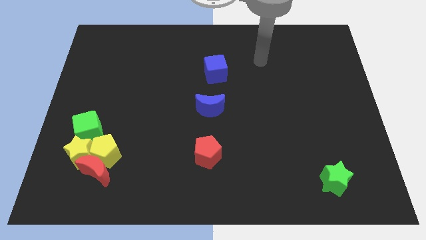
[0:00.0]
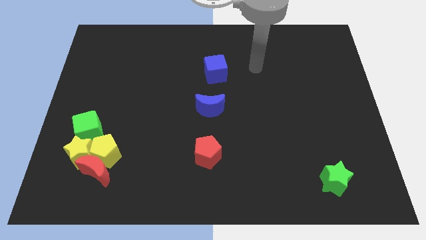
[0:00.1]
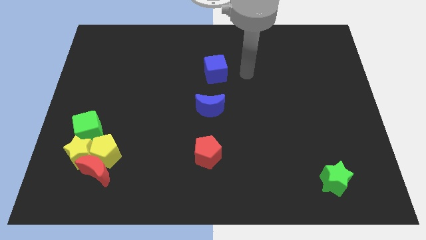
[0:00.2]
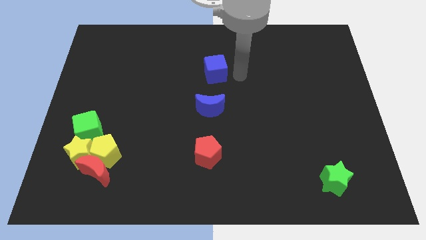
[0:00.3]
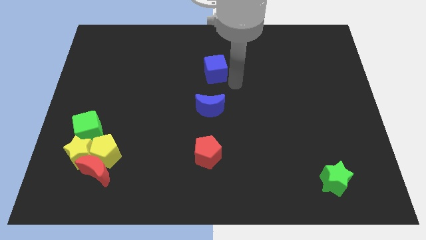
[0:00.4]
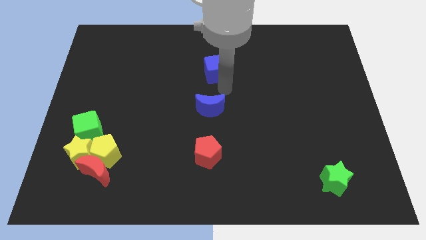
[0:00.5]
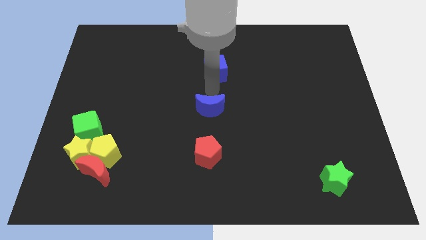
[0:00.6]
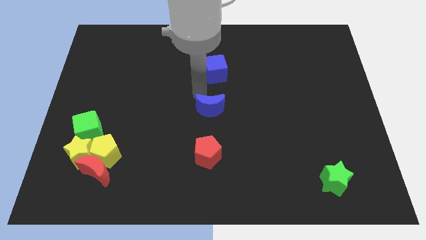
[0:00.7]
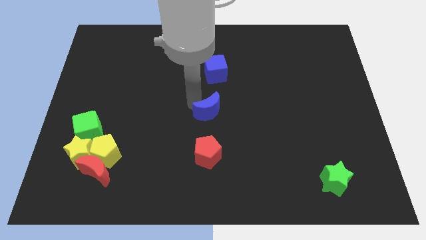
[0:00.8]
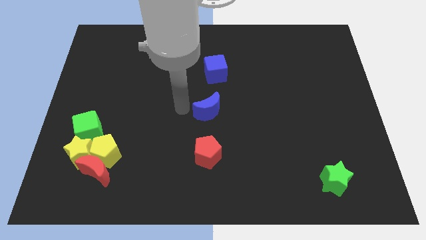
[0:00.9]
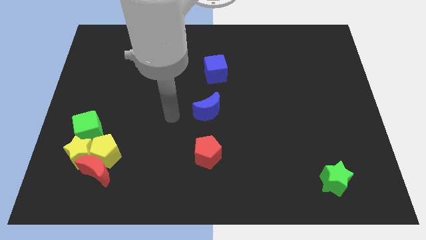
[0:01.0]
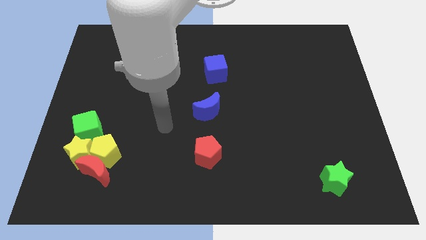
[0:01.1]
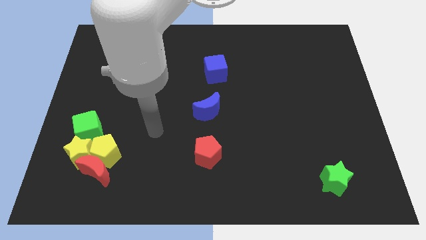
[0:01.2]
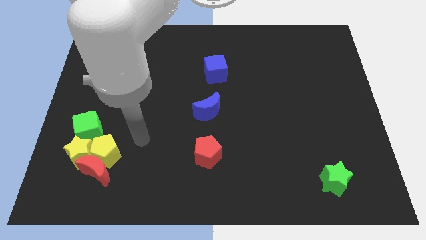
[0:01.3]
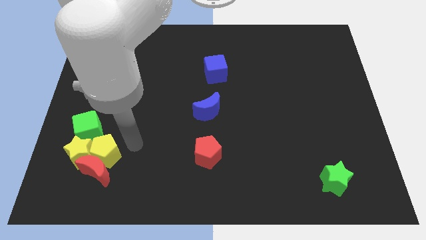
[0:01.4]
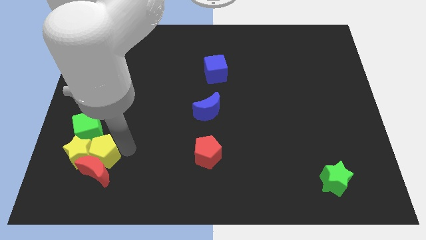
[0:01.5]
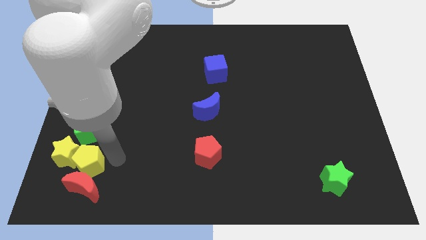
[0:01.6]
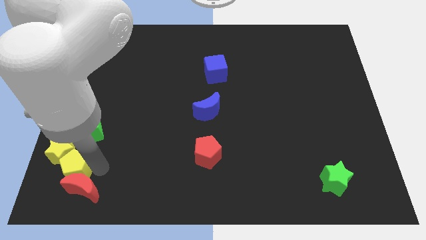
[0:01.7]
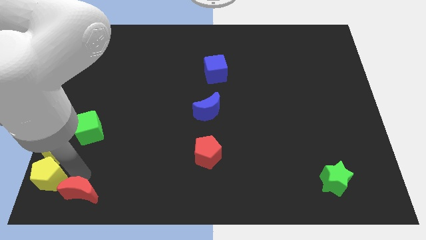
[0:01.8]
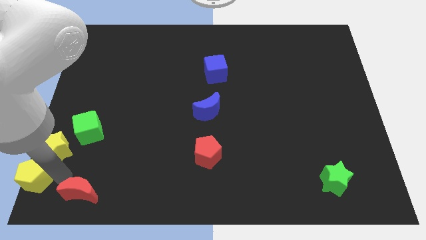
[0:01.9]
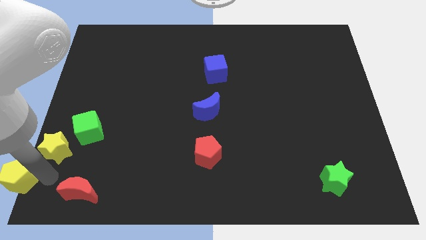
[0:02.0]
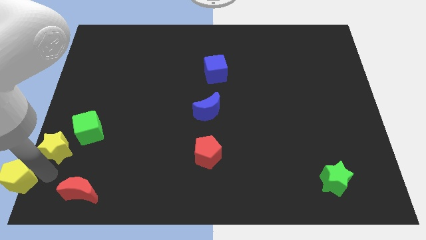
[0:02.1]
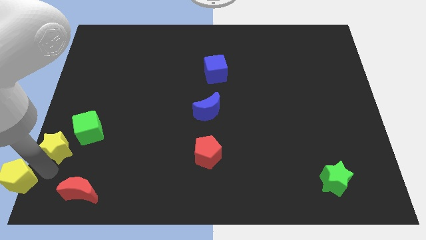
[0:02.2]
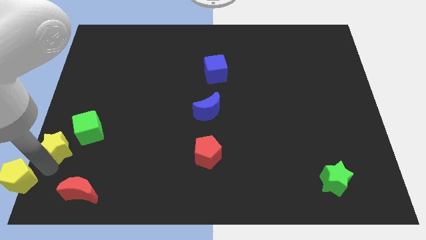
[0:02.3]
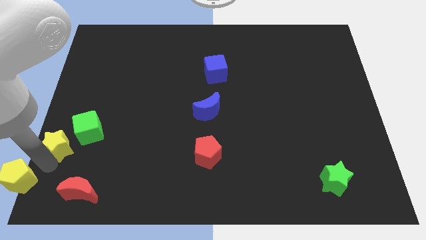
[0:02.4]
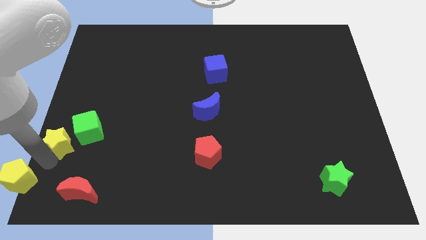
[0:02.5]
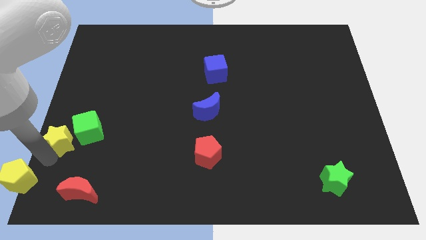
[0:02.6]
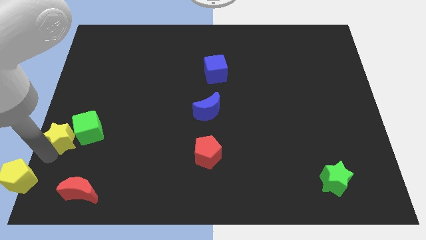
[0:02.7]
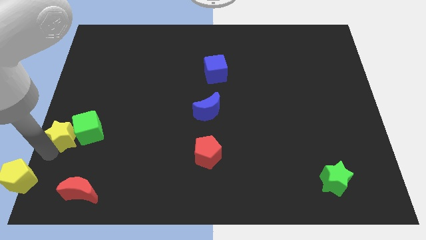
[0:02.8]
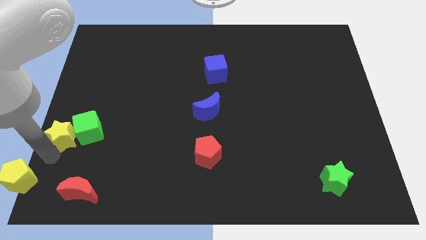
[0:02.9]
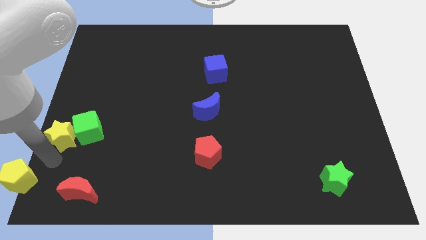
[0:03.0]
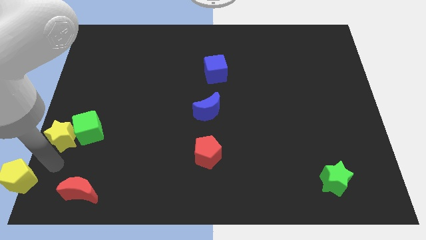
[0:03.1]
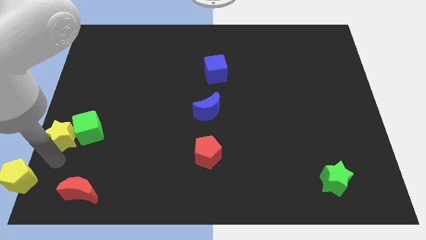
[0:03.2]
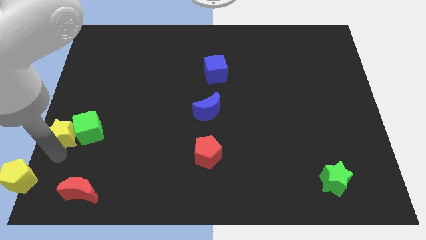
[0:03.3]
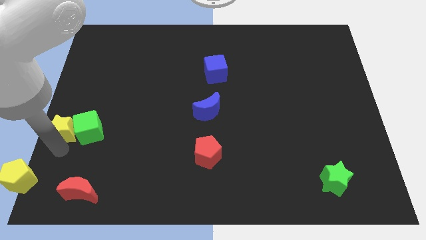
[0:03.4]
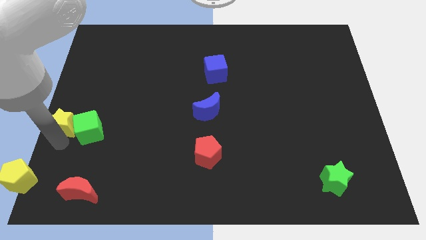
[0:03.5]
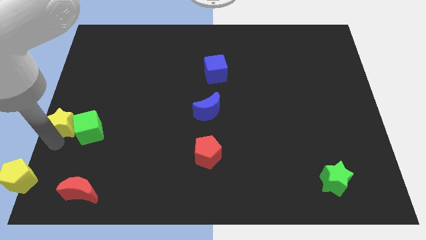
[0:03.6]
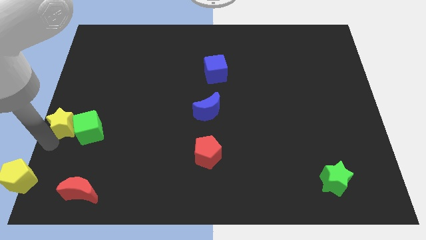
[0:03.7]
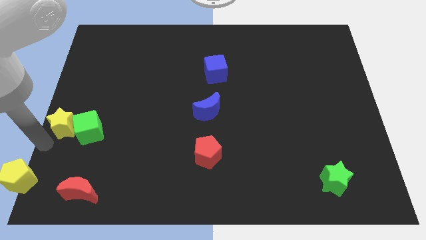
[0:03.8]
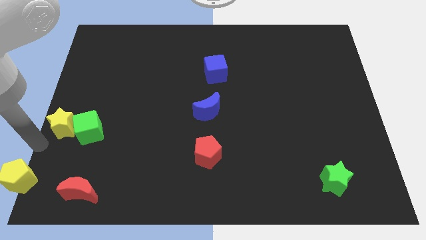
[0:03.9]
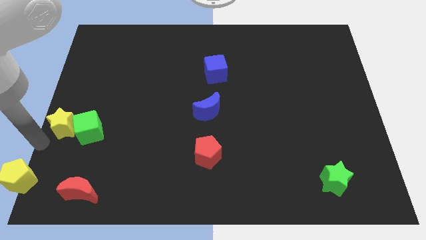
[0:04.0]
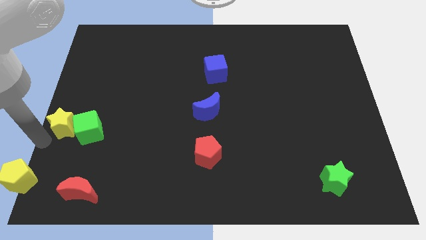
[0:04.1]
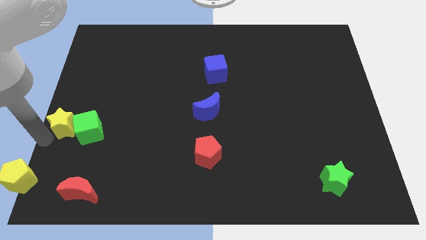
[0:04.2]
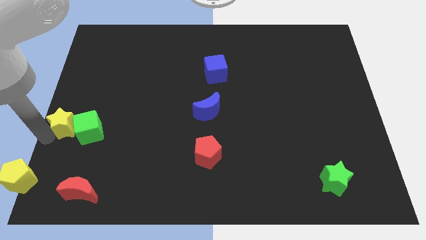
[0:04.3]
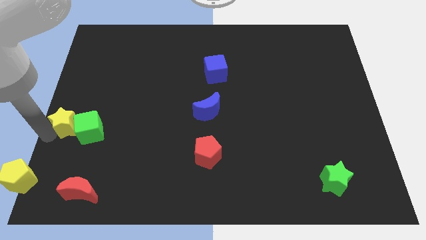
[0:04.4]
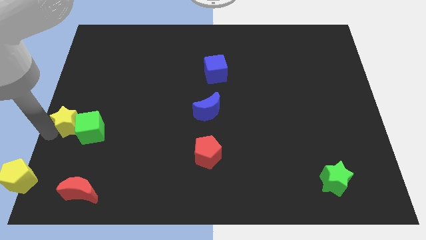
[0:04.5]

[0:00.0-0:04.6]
slightly push the yellow star upwards

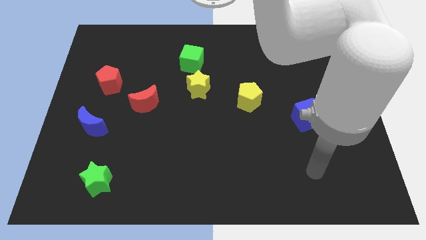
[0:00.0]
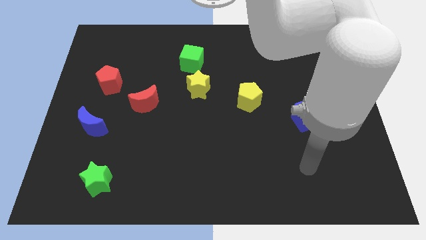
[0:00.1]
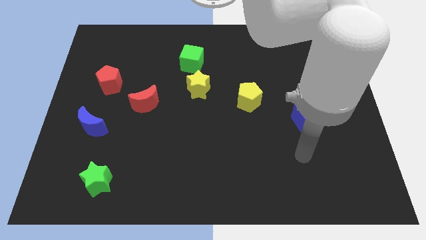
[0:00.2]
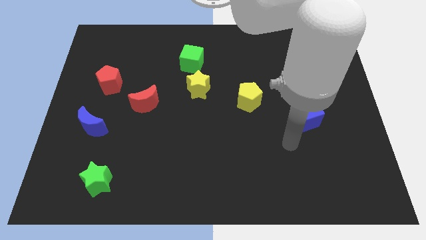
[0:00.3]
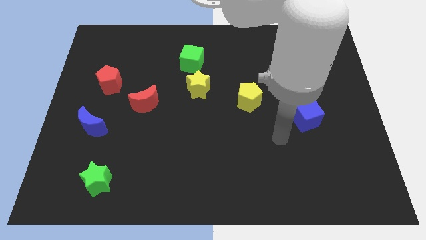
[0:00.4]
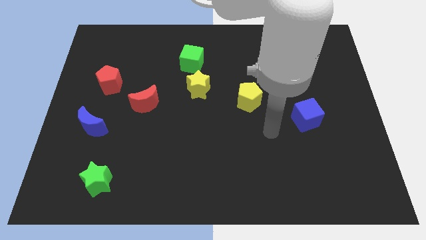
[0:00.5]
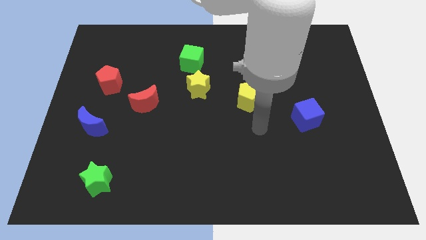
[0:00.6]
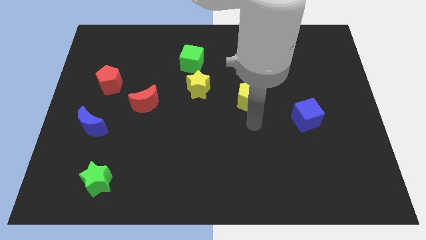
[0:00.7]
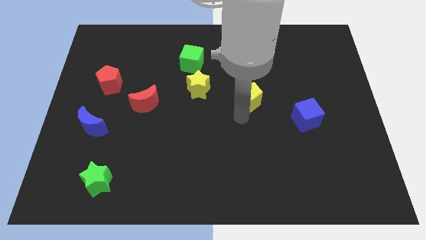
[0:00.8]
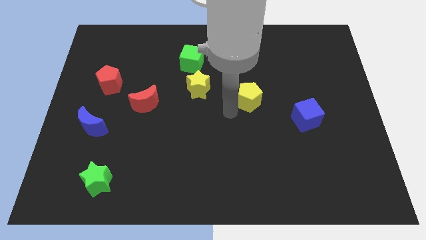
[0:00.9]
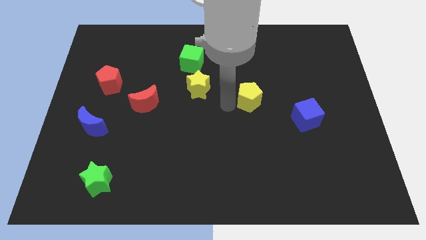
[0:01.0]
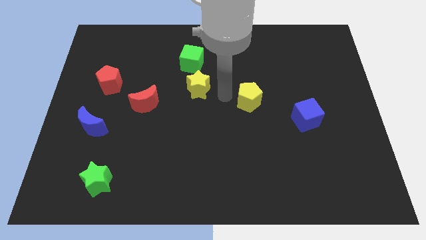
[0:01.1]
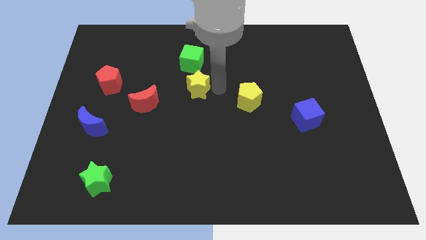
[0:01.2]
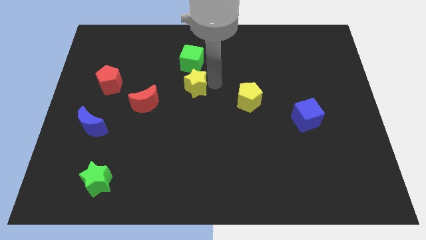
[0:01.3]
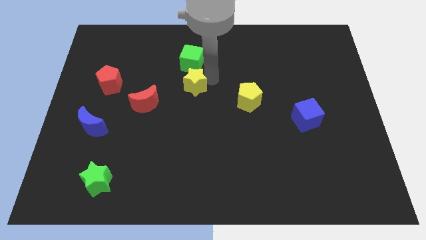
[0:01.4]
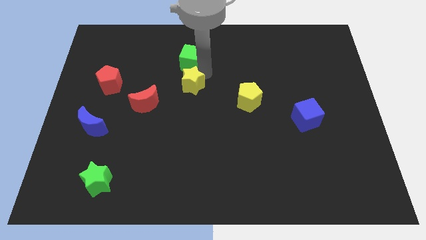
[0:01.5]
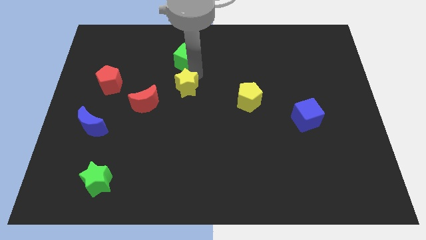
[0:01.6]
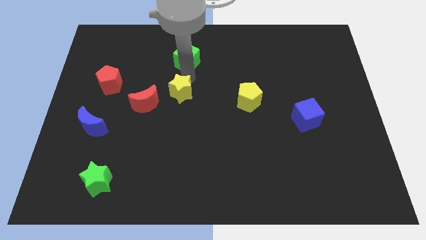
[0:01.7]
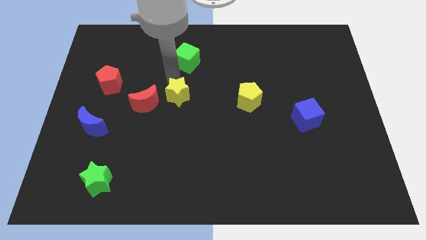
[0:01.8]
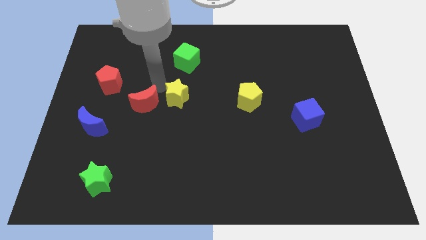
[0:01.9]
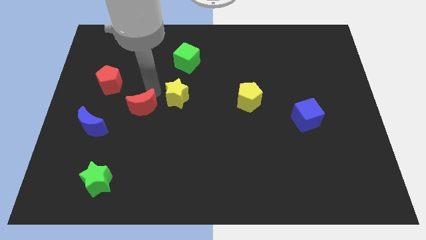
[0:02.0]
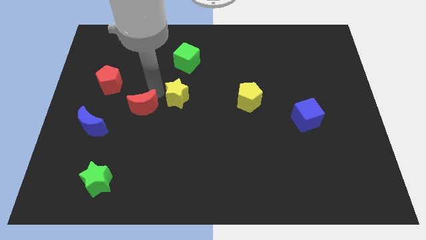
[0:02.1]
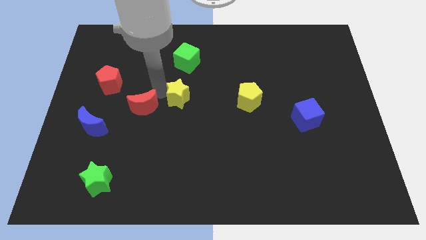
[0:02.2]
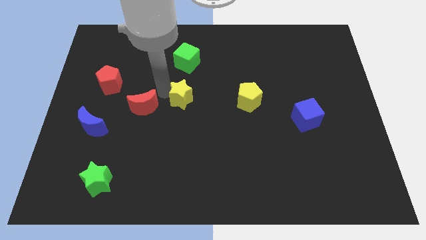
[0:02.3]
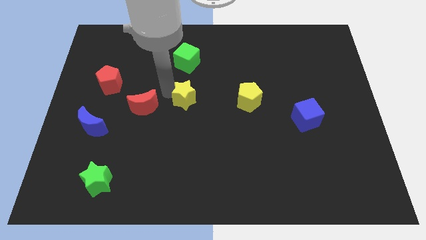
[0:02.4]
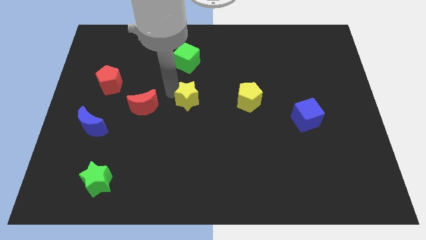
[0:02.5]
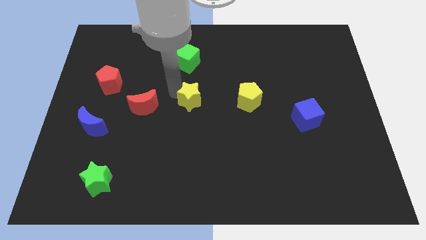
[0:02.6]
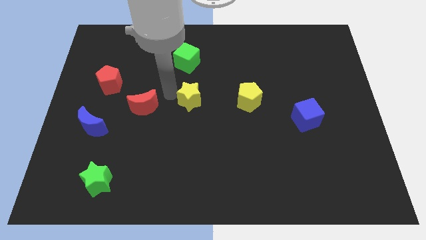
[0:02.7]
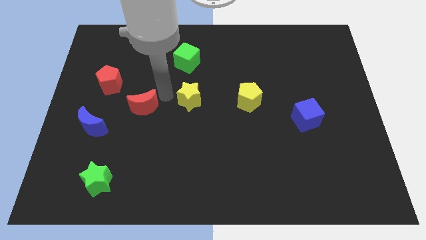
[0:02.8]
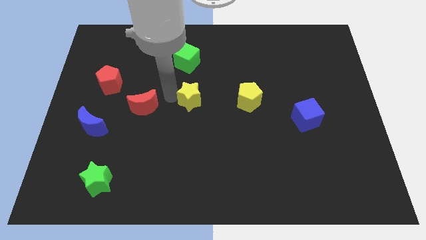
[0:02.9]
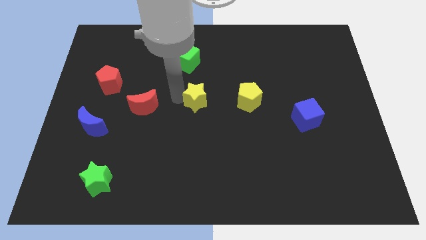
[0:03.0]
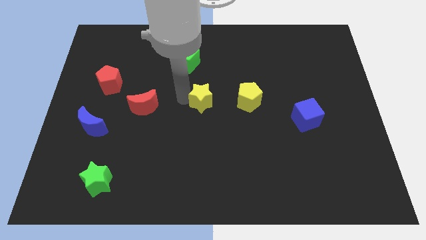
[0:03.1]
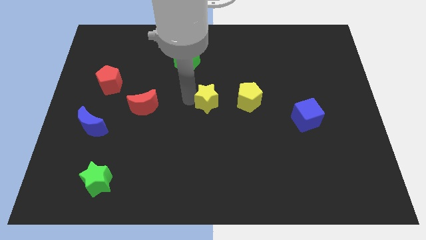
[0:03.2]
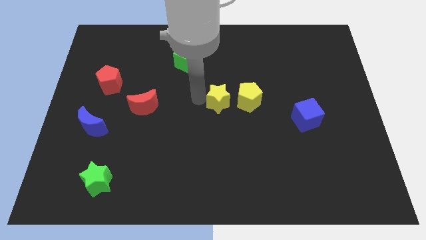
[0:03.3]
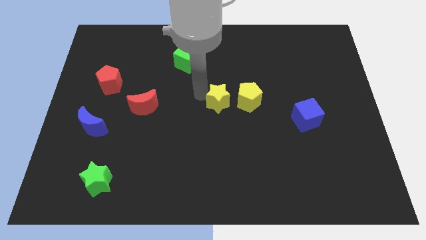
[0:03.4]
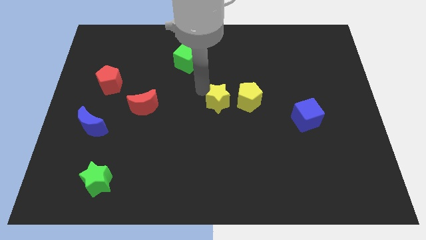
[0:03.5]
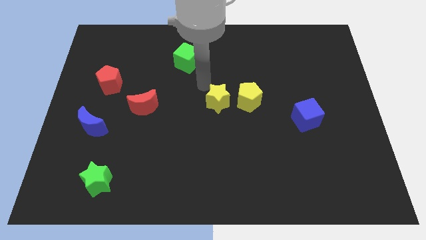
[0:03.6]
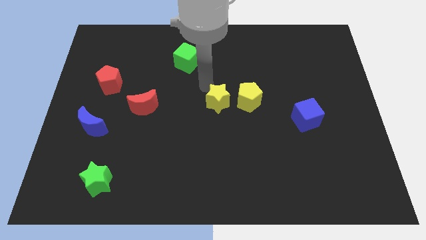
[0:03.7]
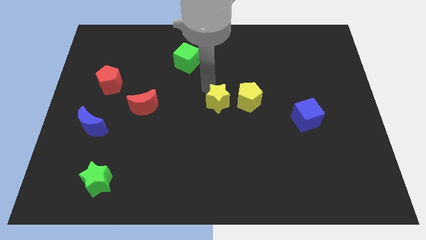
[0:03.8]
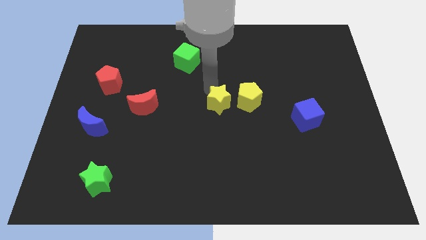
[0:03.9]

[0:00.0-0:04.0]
slightly push the yellow star downwards and to the right diagonally
